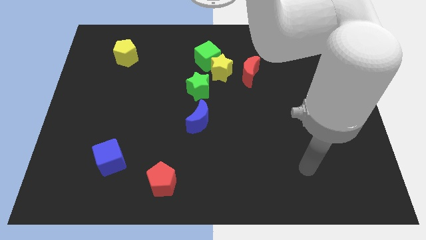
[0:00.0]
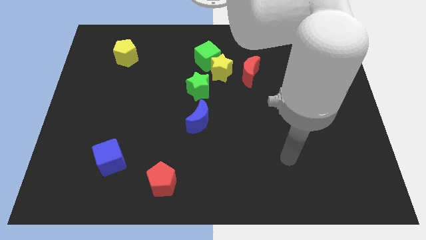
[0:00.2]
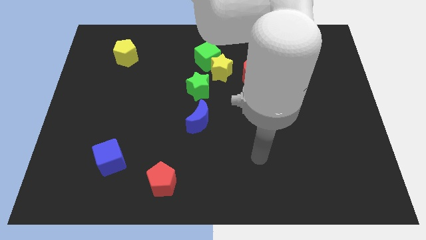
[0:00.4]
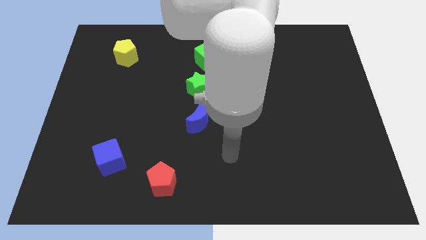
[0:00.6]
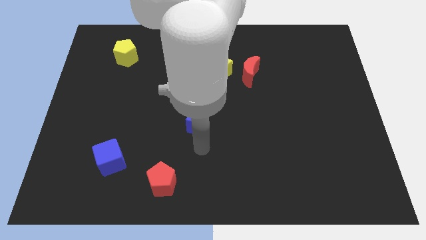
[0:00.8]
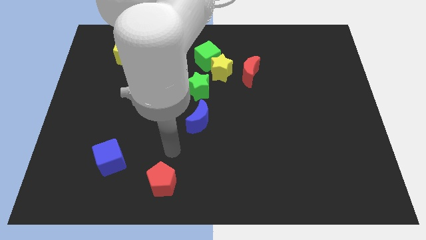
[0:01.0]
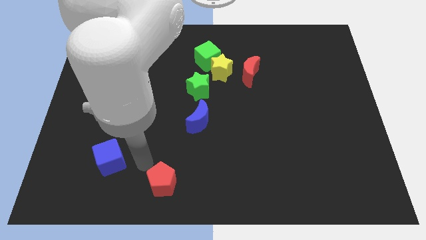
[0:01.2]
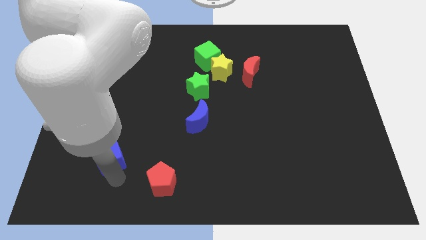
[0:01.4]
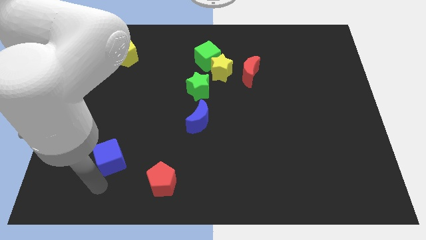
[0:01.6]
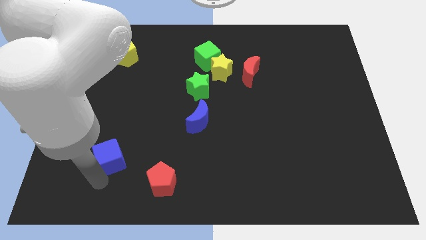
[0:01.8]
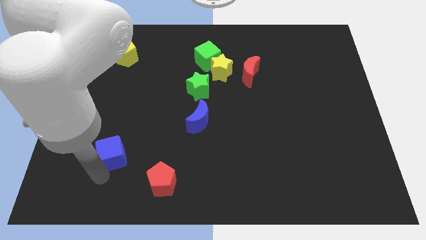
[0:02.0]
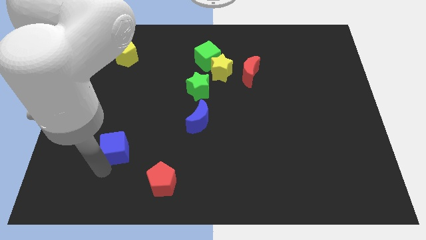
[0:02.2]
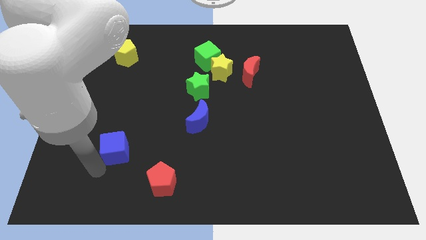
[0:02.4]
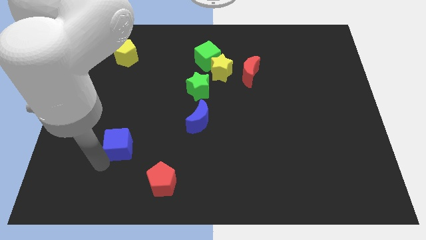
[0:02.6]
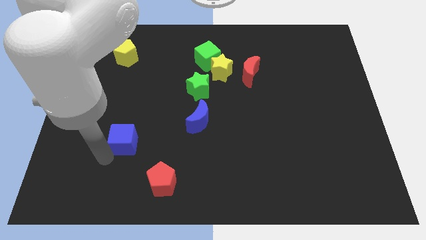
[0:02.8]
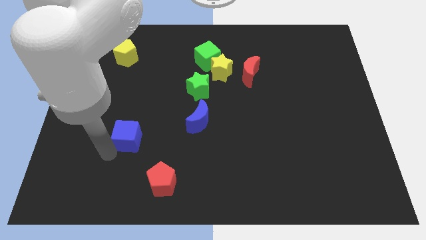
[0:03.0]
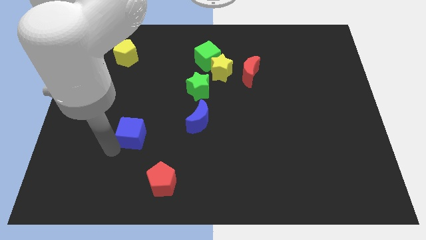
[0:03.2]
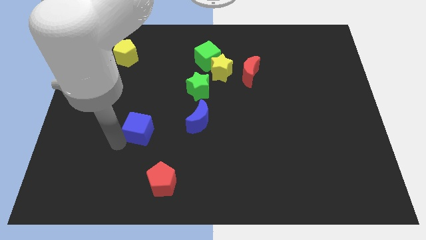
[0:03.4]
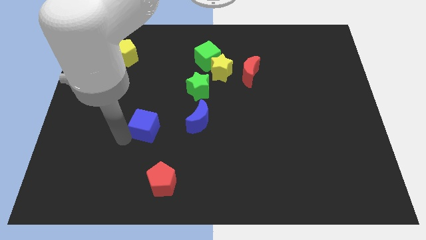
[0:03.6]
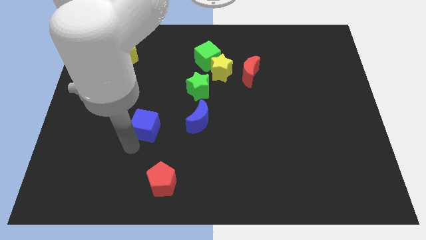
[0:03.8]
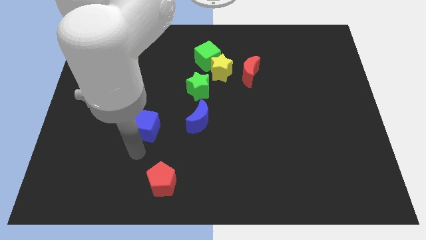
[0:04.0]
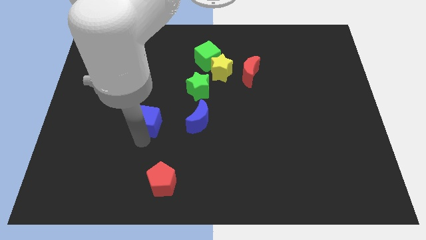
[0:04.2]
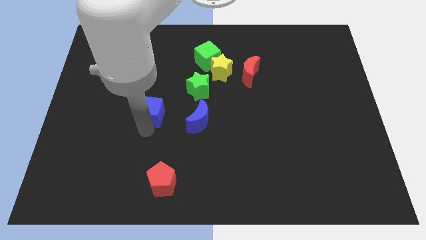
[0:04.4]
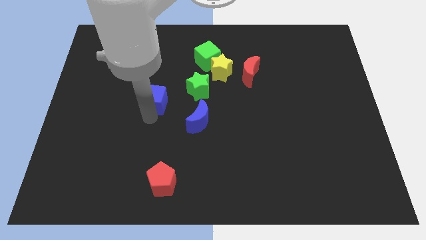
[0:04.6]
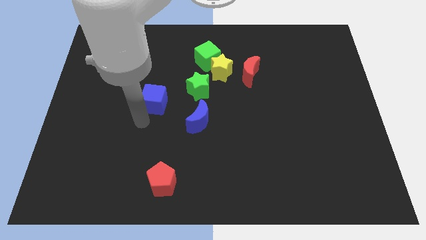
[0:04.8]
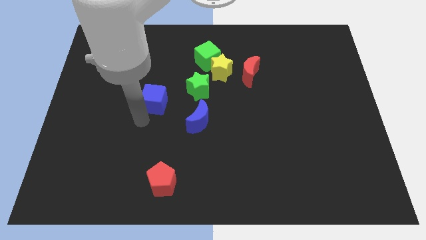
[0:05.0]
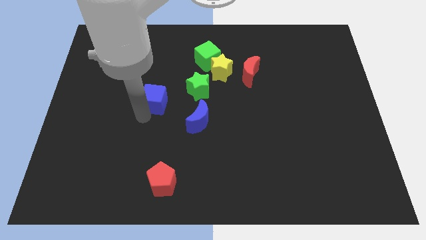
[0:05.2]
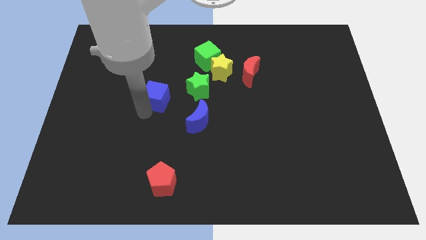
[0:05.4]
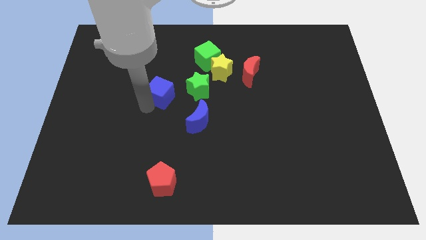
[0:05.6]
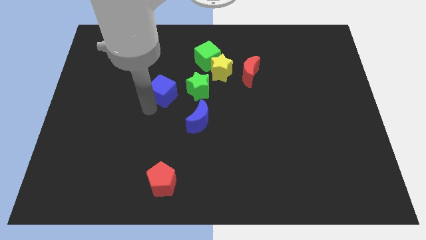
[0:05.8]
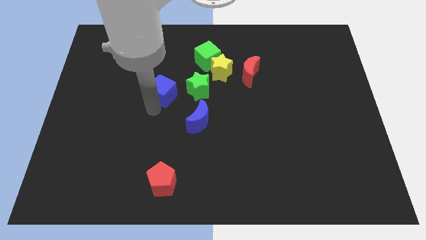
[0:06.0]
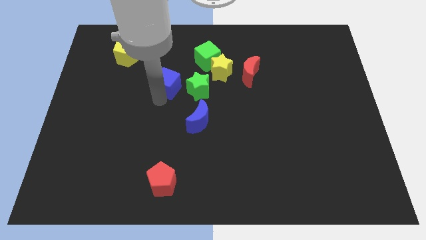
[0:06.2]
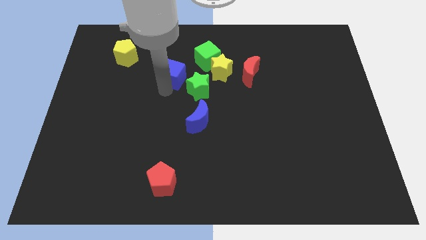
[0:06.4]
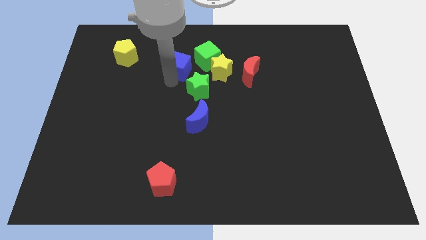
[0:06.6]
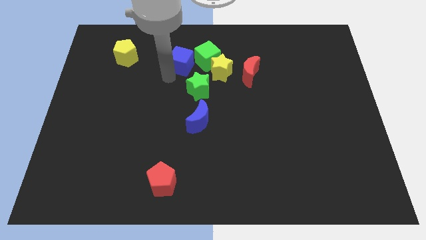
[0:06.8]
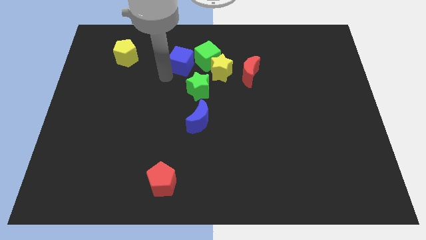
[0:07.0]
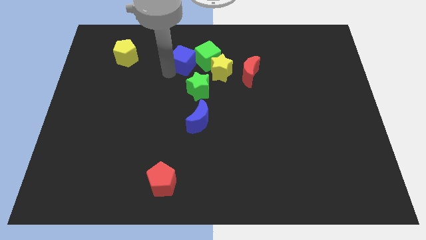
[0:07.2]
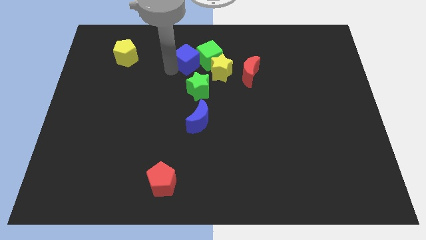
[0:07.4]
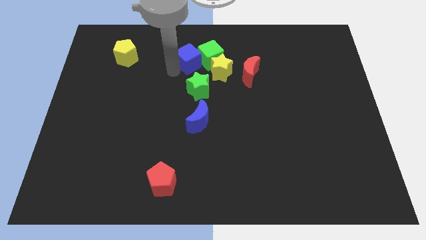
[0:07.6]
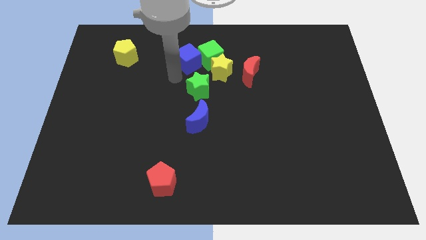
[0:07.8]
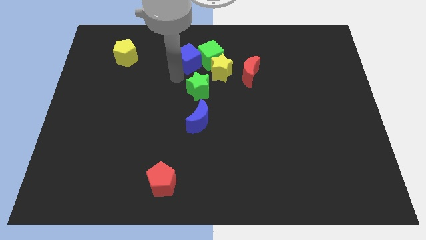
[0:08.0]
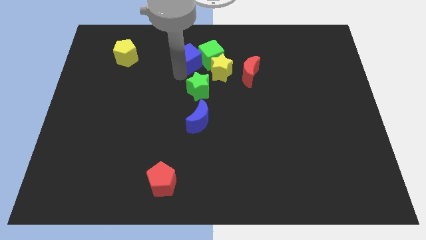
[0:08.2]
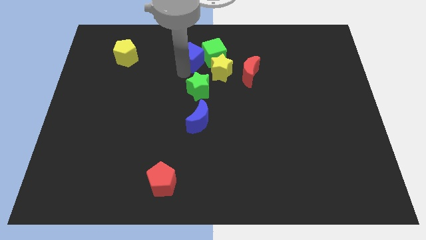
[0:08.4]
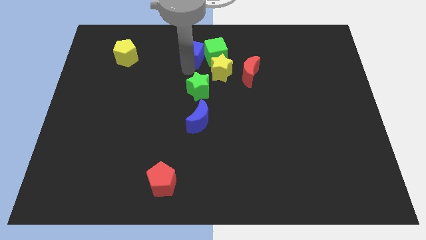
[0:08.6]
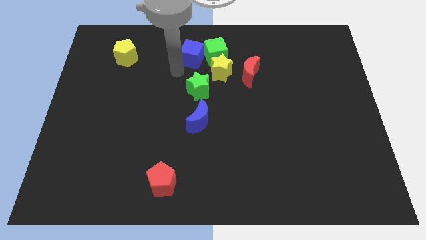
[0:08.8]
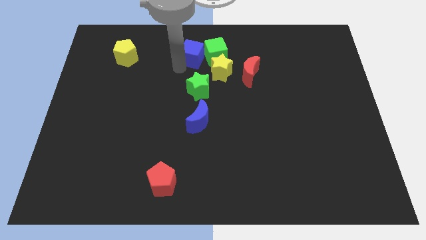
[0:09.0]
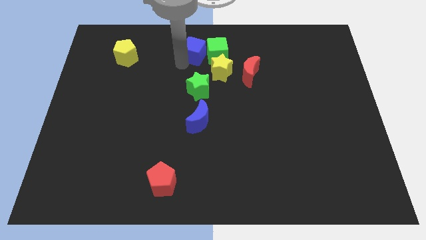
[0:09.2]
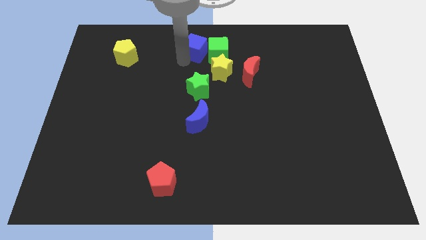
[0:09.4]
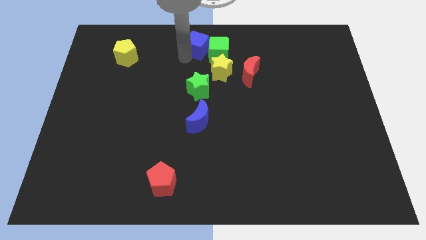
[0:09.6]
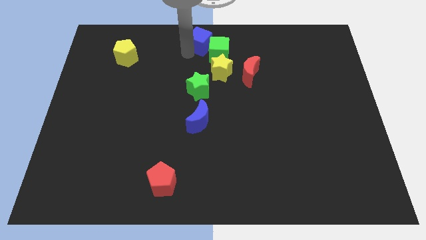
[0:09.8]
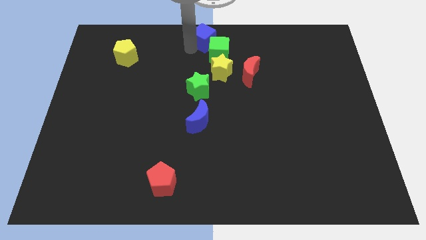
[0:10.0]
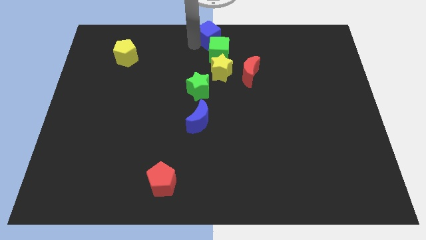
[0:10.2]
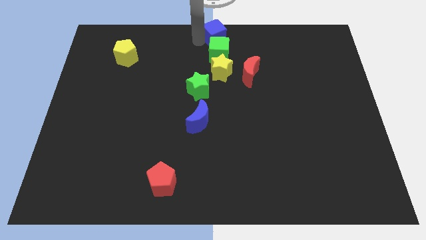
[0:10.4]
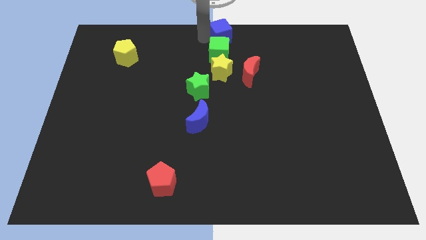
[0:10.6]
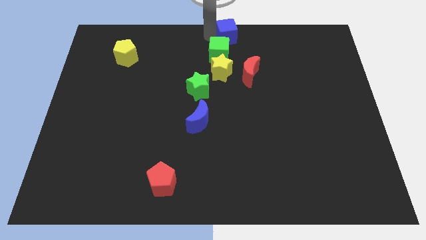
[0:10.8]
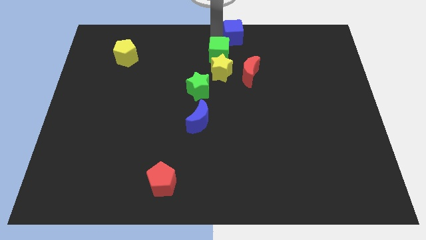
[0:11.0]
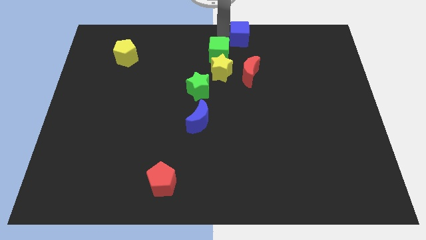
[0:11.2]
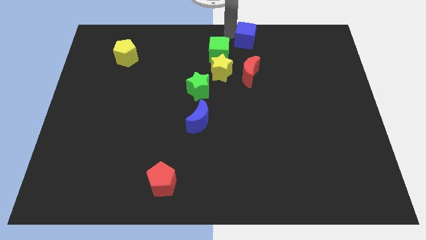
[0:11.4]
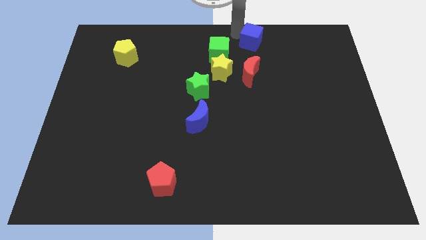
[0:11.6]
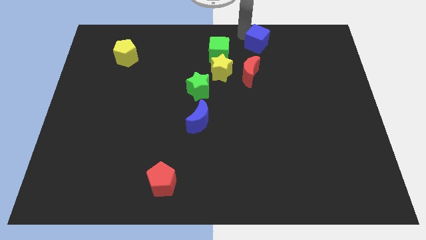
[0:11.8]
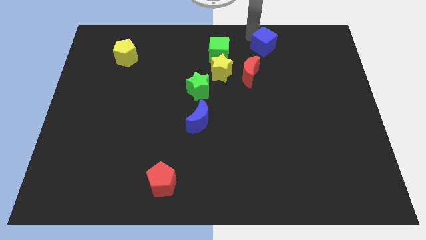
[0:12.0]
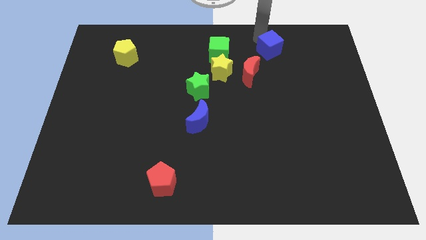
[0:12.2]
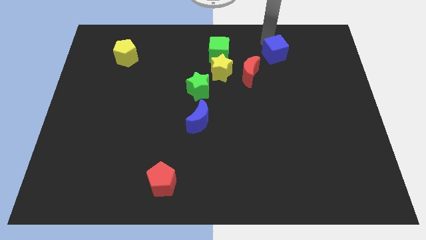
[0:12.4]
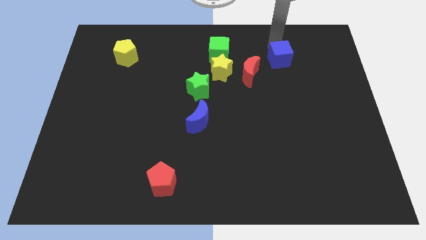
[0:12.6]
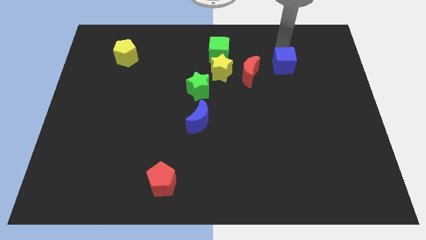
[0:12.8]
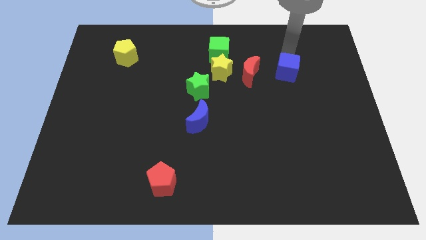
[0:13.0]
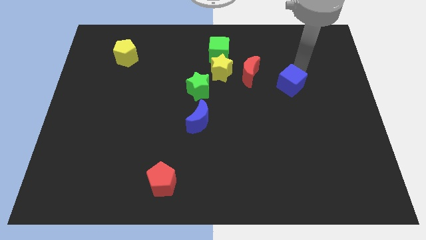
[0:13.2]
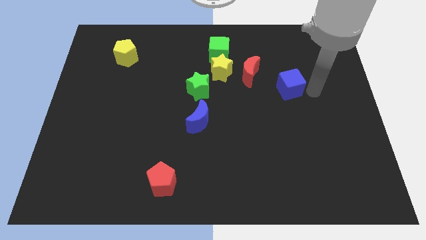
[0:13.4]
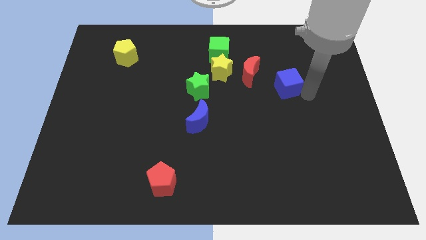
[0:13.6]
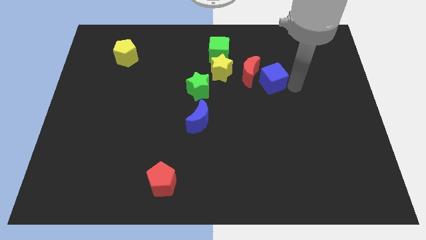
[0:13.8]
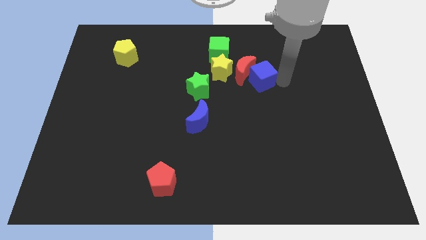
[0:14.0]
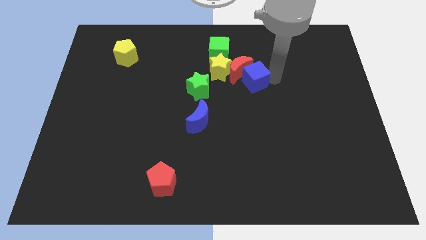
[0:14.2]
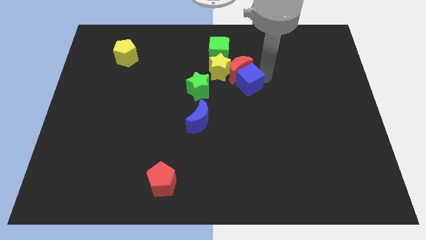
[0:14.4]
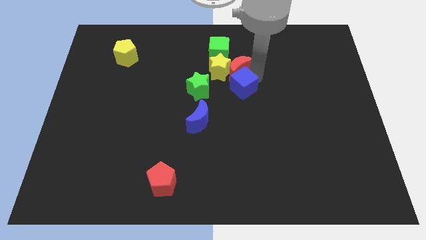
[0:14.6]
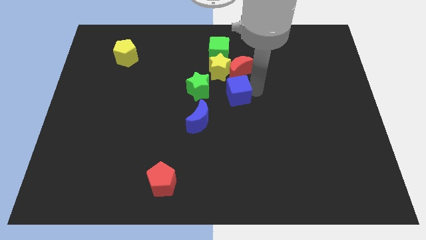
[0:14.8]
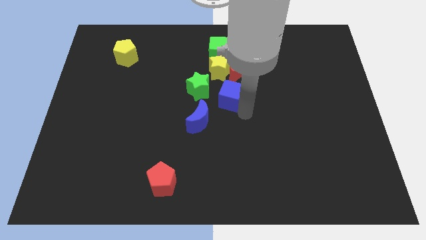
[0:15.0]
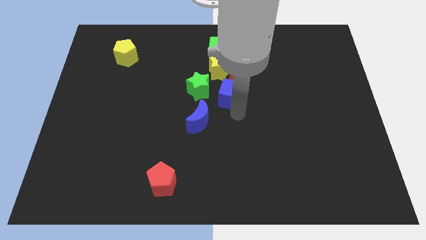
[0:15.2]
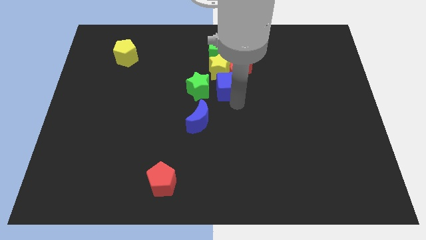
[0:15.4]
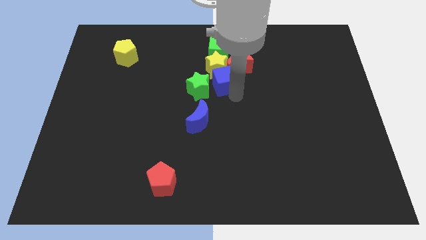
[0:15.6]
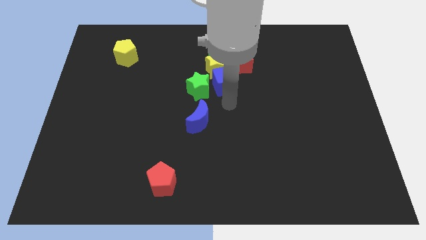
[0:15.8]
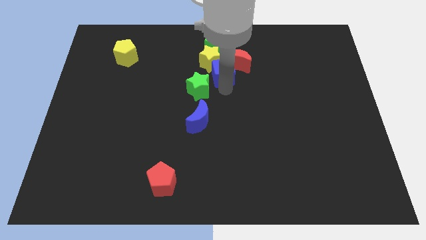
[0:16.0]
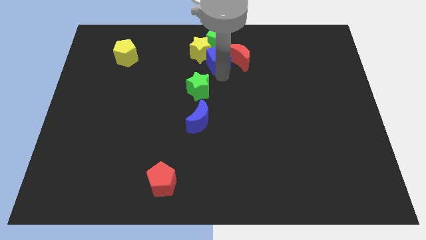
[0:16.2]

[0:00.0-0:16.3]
push the blue cube to the top left of the red moon

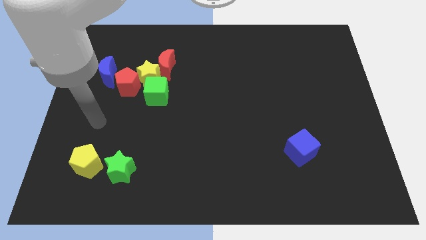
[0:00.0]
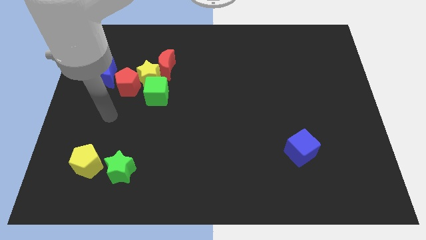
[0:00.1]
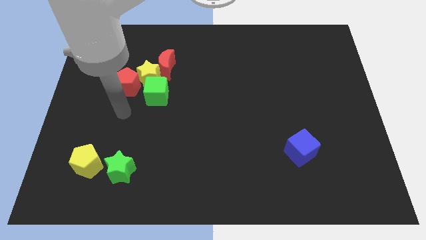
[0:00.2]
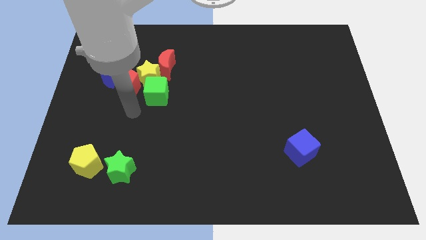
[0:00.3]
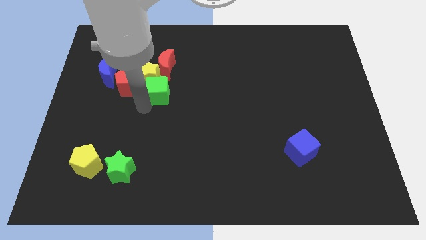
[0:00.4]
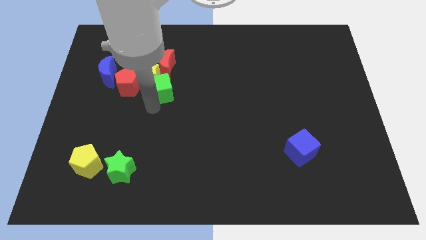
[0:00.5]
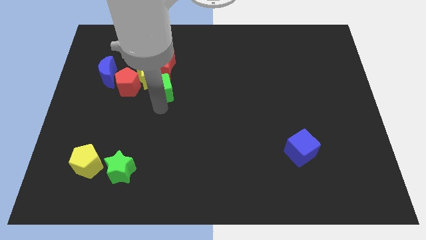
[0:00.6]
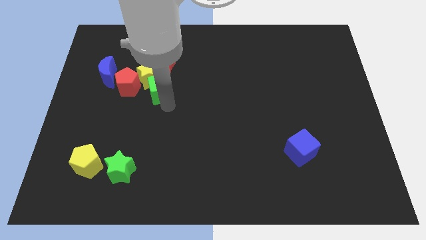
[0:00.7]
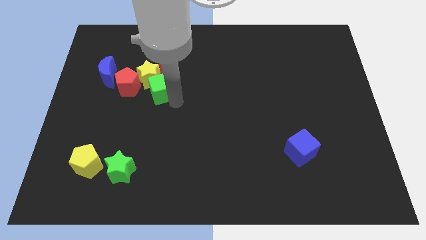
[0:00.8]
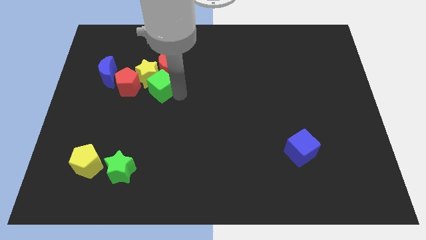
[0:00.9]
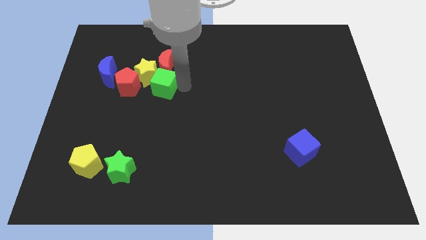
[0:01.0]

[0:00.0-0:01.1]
put the red moon diagonally up and to the left of the green cube
